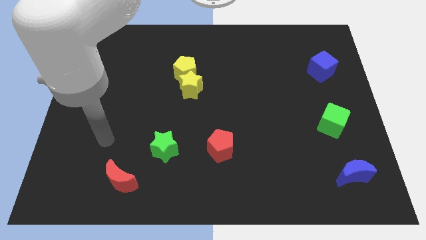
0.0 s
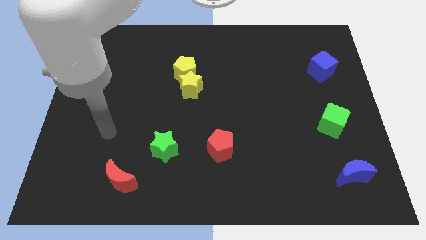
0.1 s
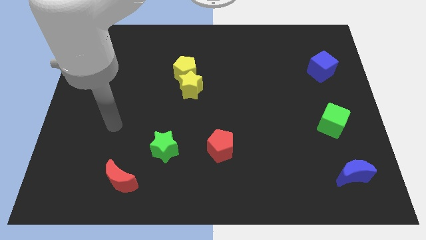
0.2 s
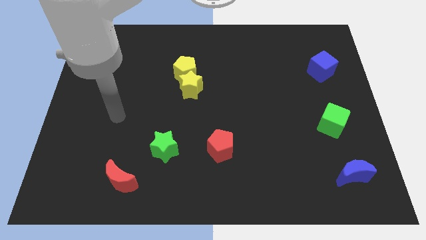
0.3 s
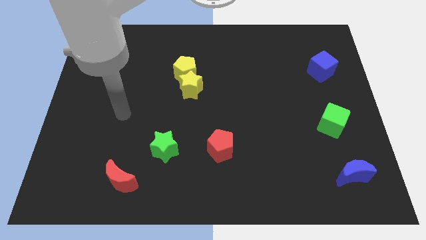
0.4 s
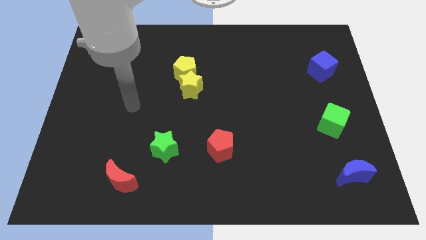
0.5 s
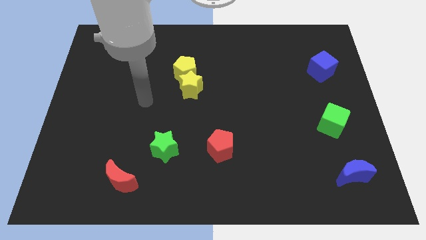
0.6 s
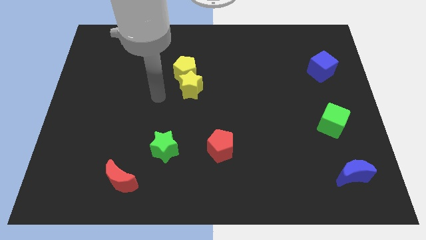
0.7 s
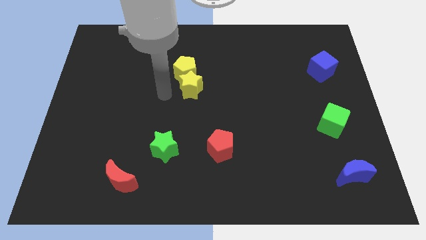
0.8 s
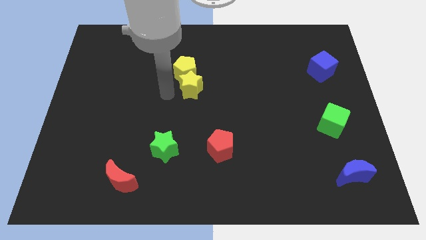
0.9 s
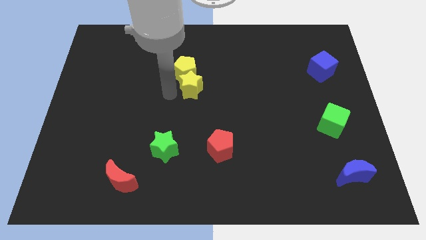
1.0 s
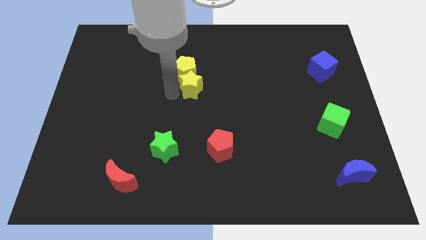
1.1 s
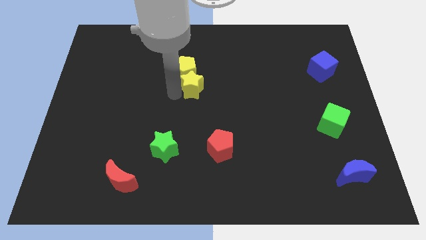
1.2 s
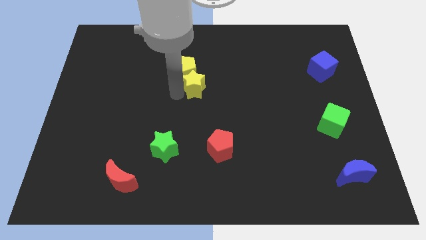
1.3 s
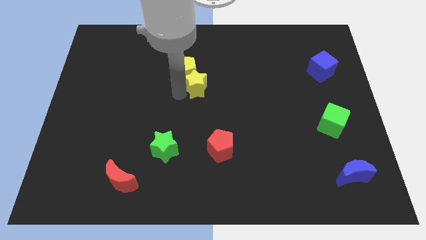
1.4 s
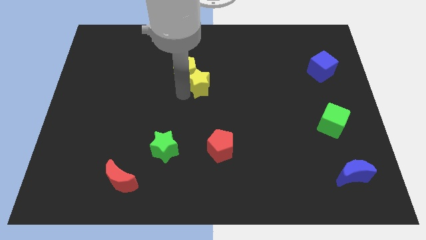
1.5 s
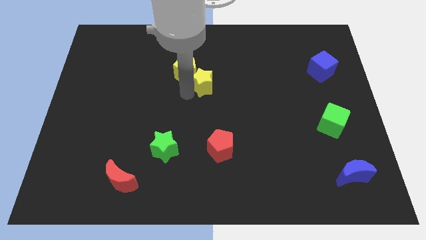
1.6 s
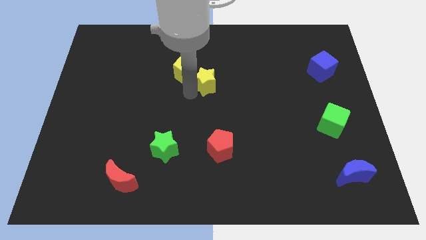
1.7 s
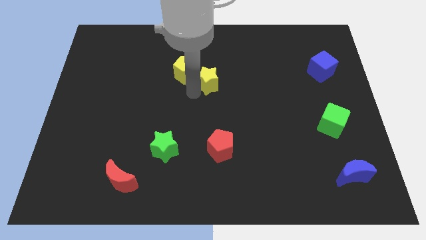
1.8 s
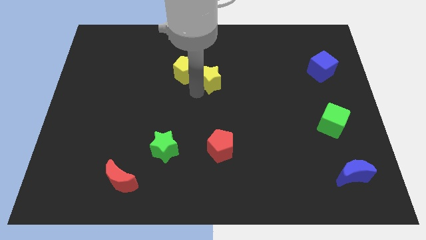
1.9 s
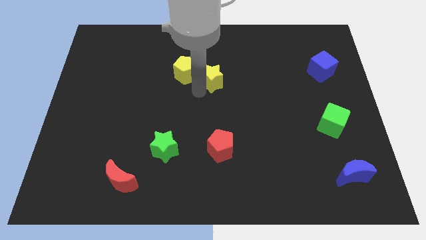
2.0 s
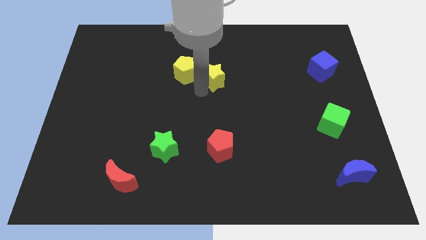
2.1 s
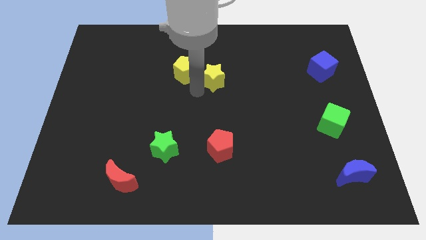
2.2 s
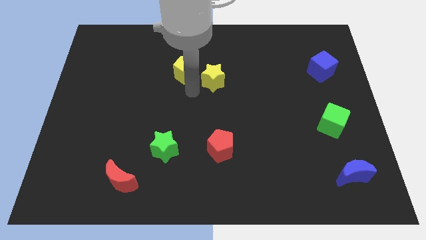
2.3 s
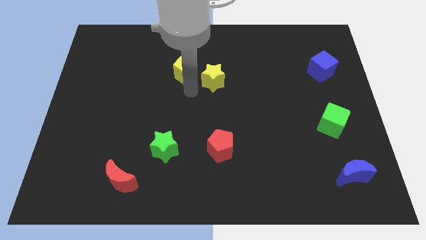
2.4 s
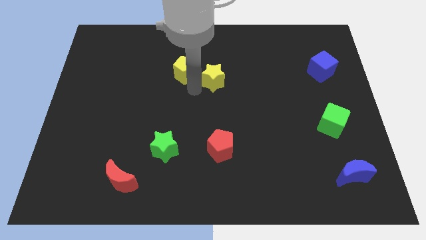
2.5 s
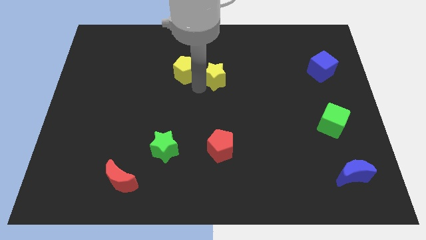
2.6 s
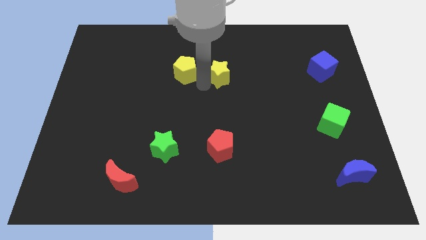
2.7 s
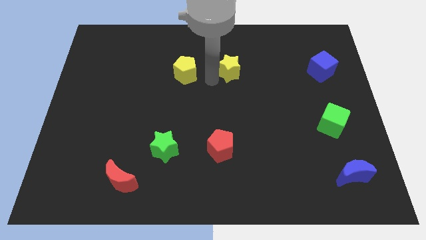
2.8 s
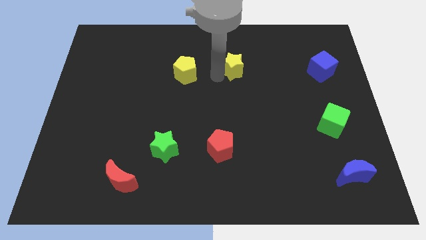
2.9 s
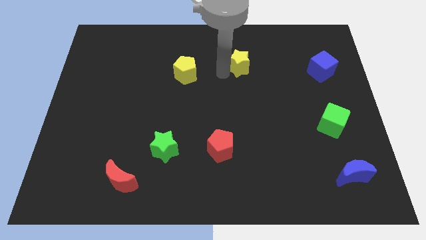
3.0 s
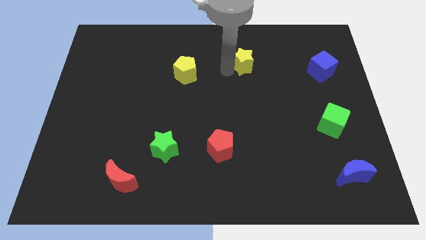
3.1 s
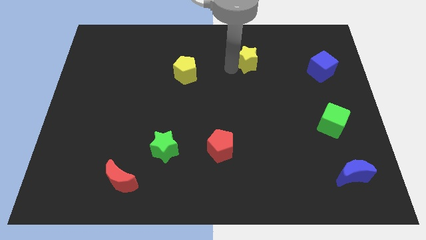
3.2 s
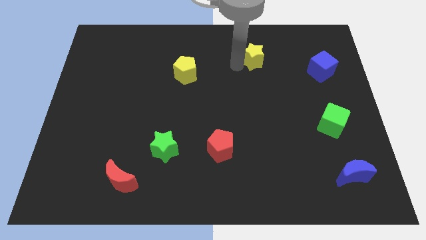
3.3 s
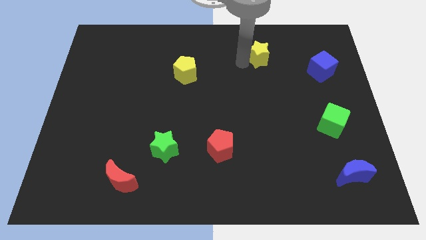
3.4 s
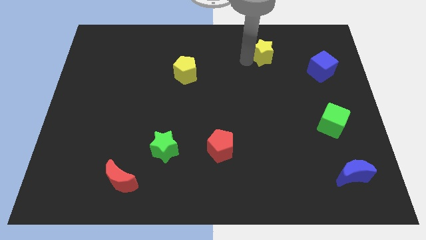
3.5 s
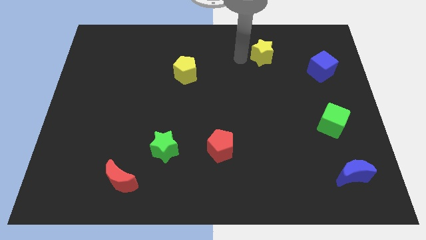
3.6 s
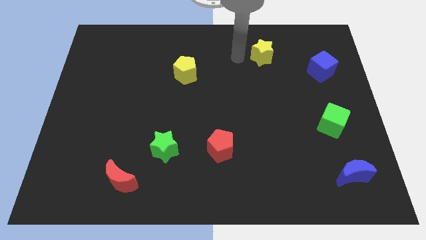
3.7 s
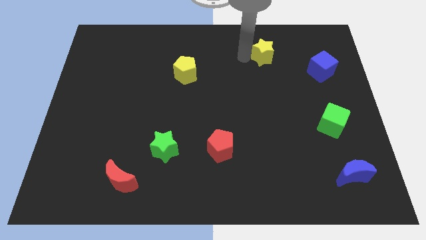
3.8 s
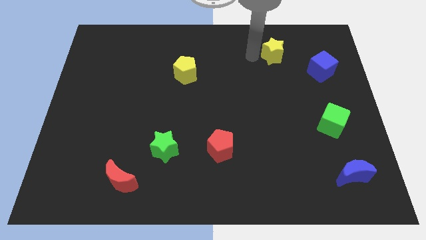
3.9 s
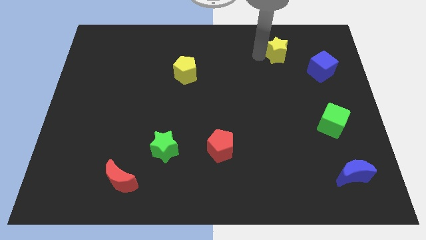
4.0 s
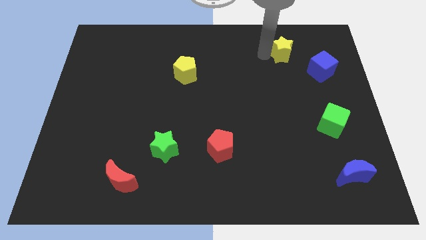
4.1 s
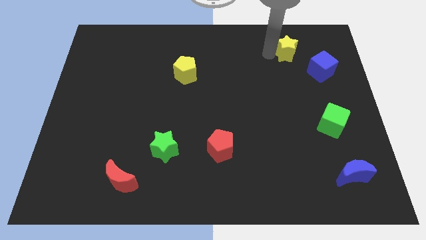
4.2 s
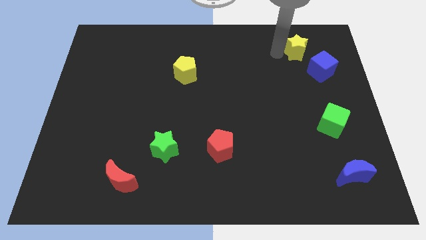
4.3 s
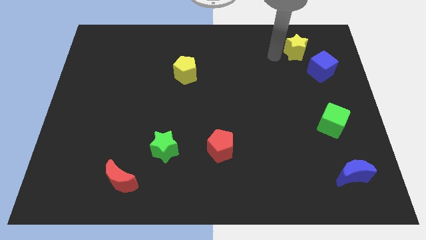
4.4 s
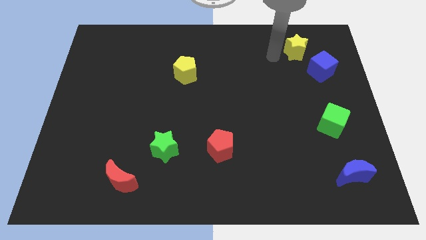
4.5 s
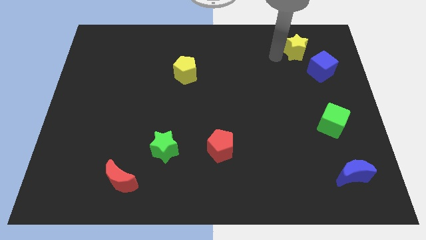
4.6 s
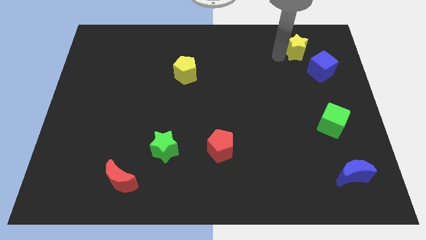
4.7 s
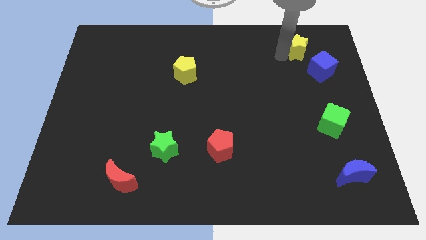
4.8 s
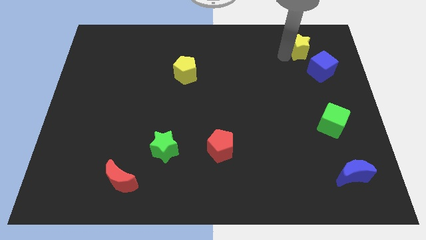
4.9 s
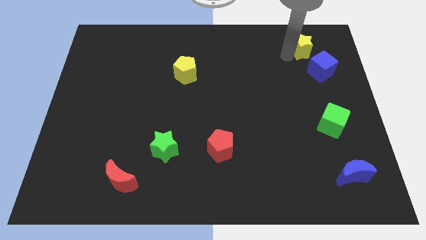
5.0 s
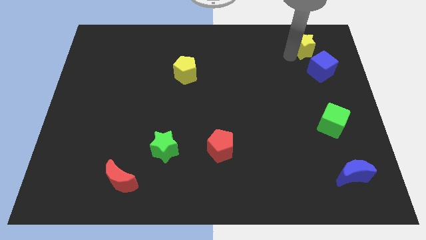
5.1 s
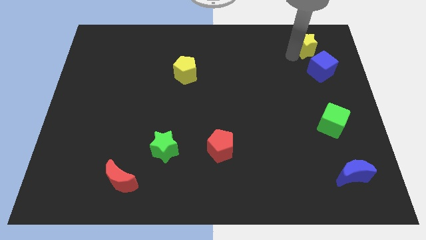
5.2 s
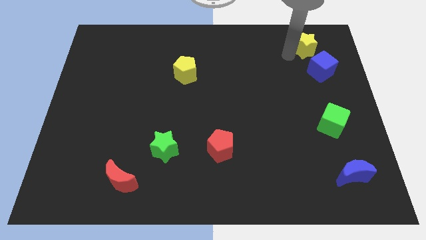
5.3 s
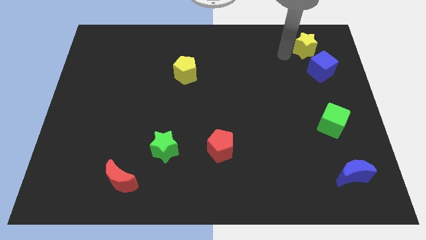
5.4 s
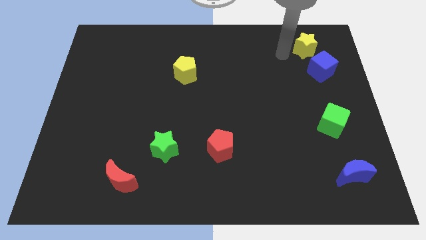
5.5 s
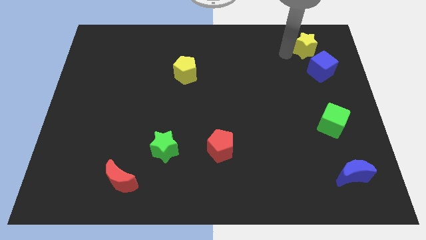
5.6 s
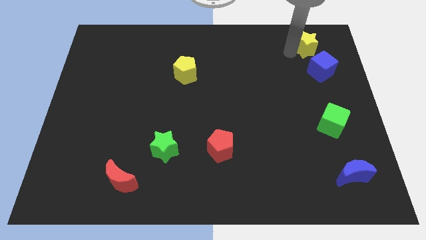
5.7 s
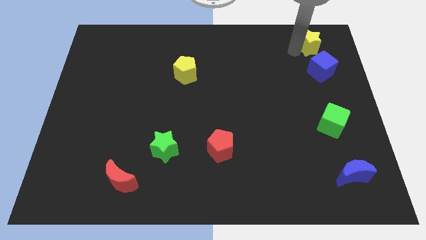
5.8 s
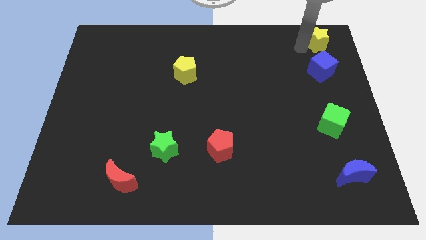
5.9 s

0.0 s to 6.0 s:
push the yellow star to the top right
